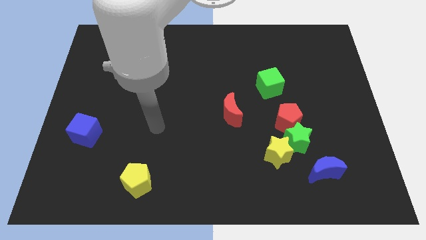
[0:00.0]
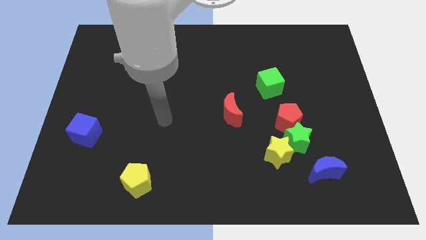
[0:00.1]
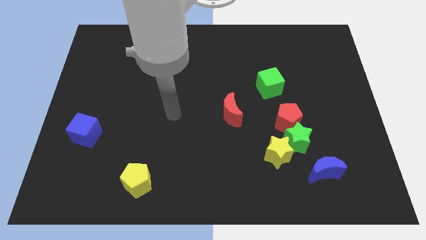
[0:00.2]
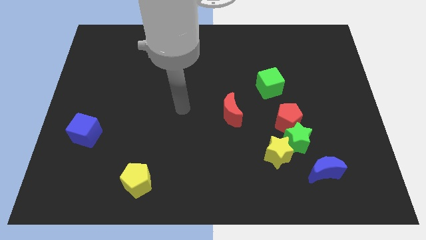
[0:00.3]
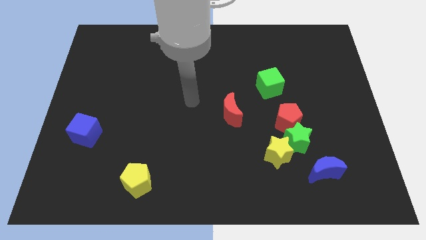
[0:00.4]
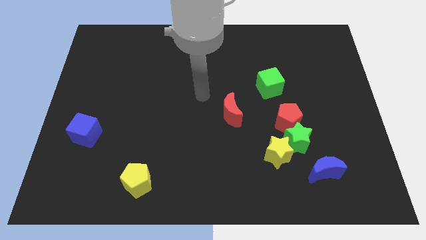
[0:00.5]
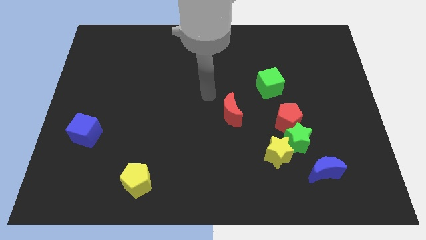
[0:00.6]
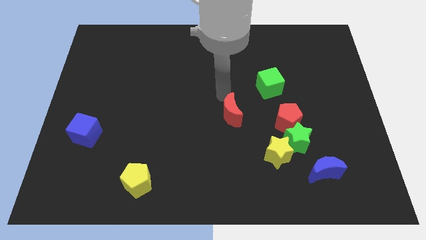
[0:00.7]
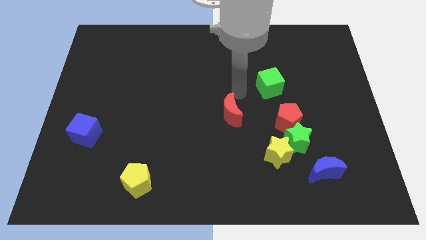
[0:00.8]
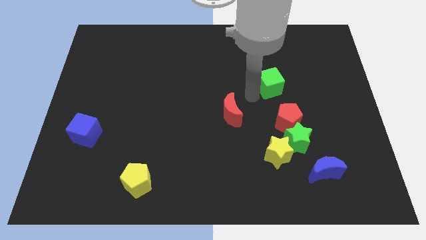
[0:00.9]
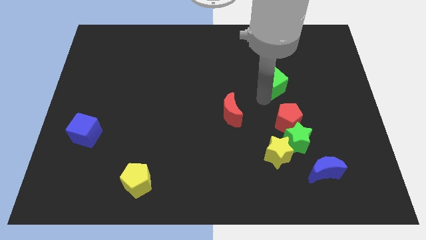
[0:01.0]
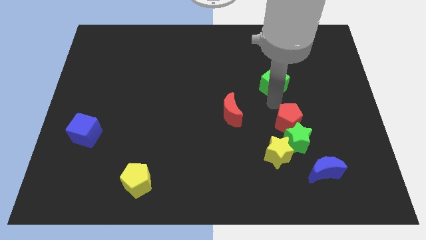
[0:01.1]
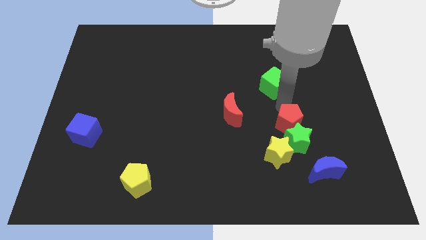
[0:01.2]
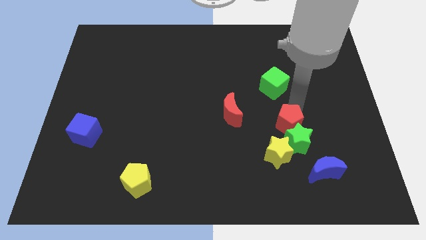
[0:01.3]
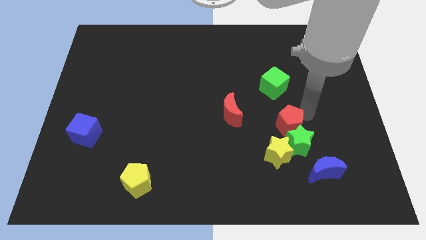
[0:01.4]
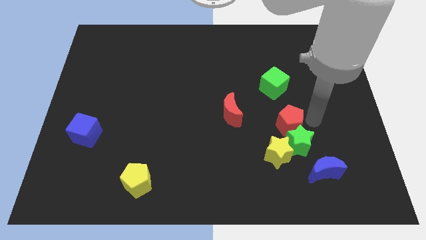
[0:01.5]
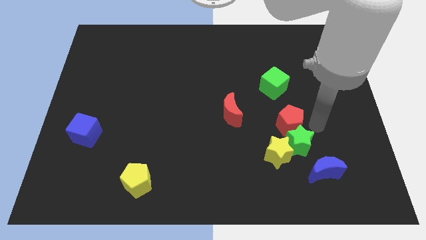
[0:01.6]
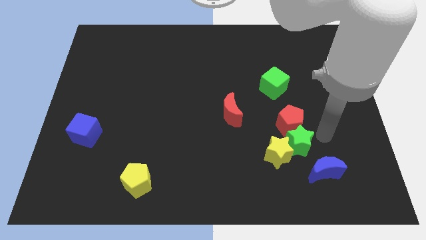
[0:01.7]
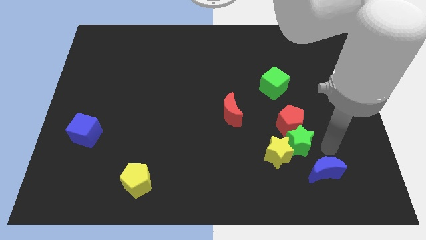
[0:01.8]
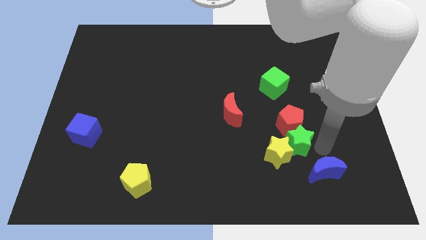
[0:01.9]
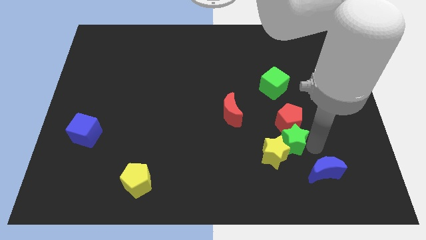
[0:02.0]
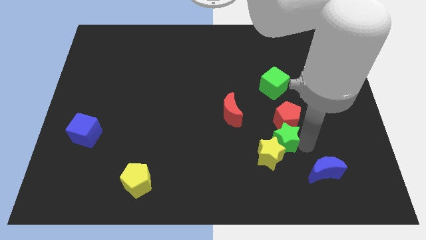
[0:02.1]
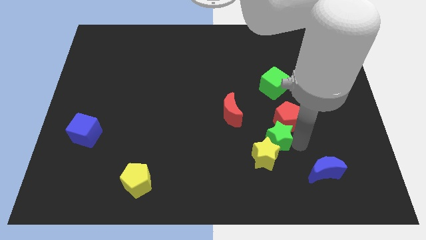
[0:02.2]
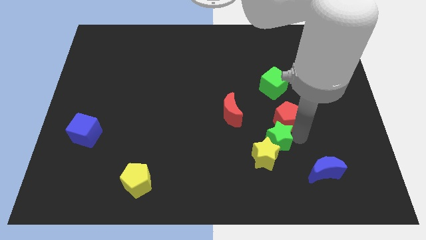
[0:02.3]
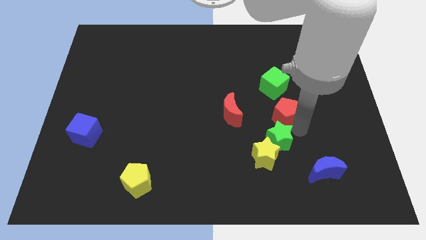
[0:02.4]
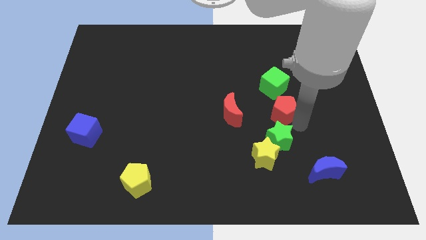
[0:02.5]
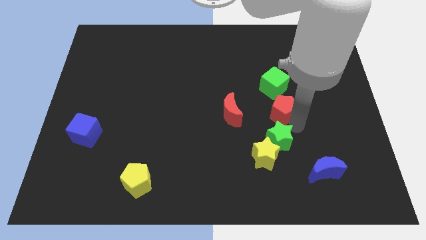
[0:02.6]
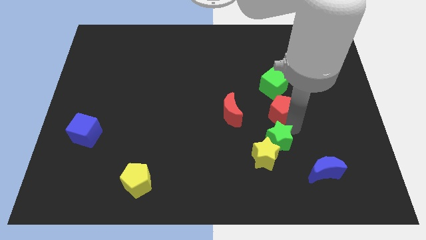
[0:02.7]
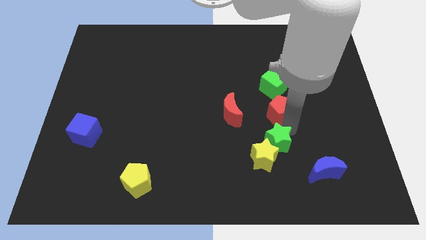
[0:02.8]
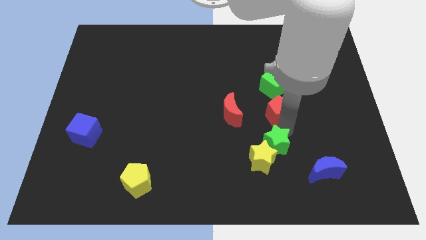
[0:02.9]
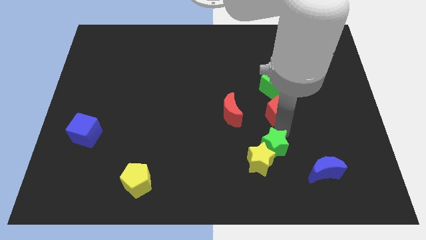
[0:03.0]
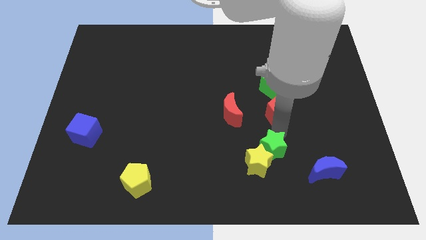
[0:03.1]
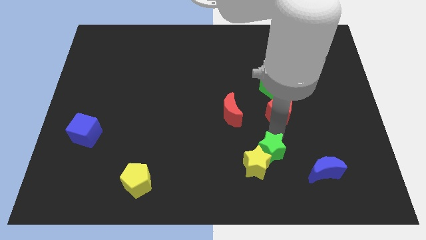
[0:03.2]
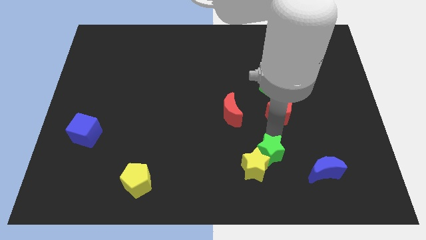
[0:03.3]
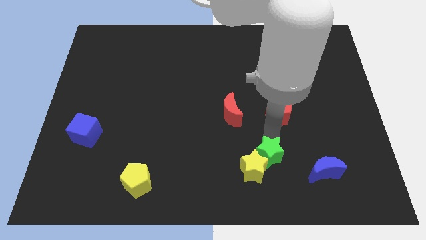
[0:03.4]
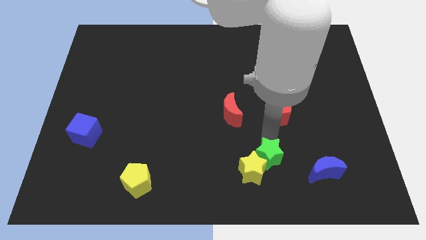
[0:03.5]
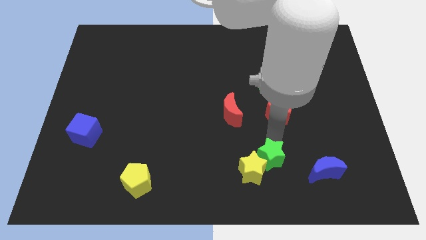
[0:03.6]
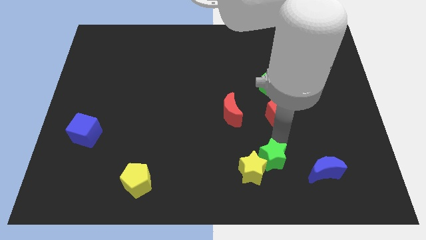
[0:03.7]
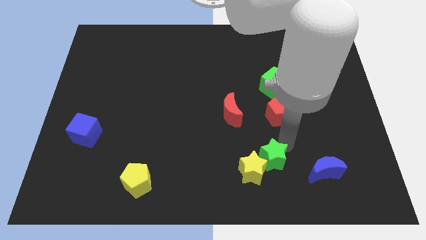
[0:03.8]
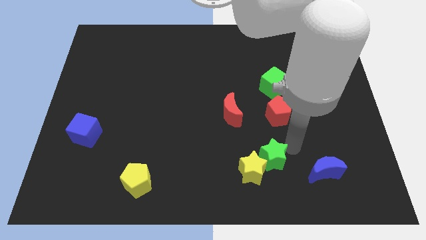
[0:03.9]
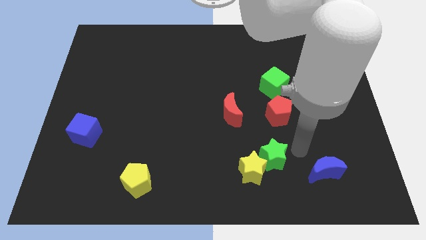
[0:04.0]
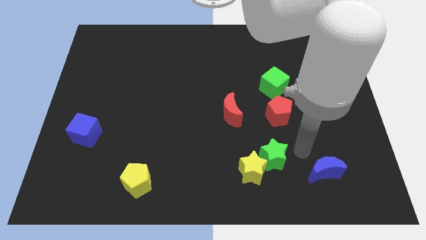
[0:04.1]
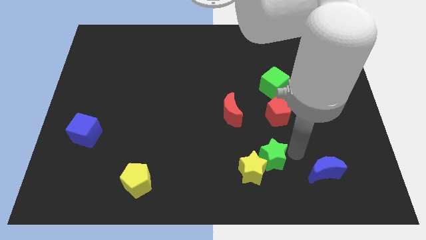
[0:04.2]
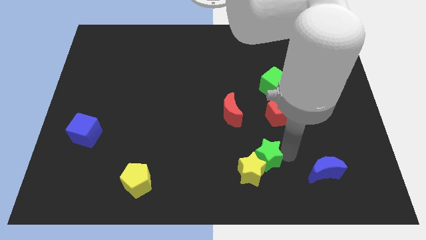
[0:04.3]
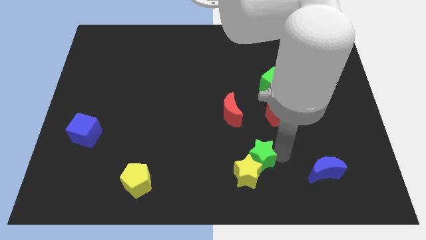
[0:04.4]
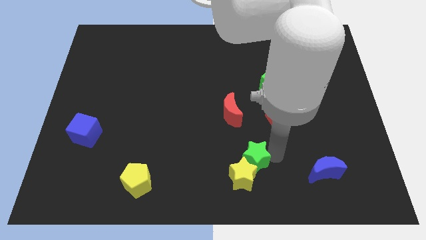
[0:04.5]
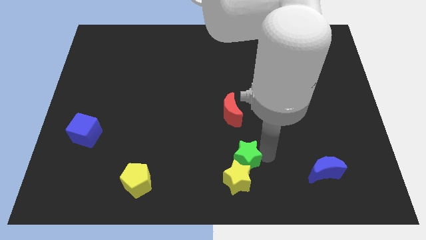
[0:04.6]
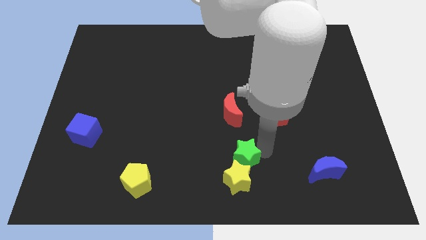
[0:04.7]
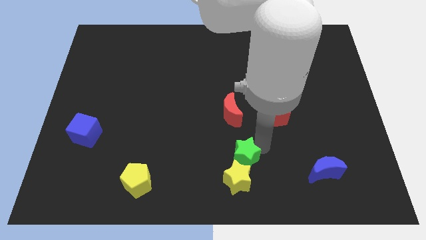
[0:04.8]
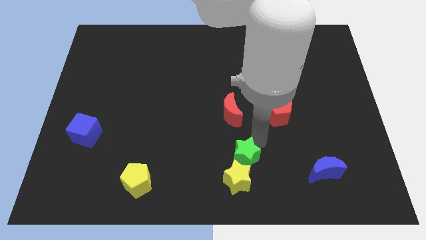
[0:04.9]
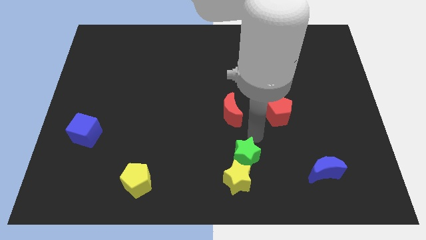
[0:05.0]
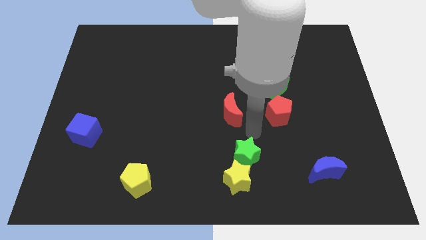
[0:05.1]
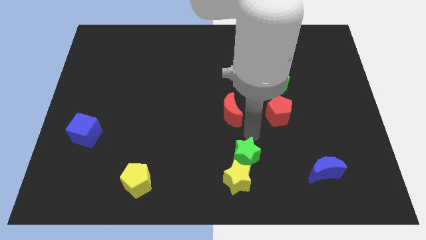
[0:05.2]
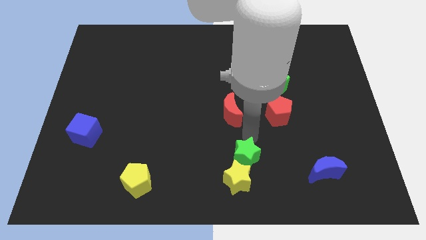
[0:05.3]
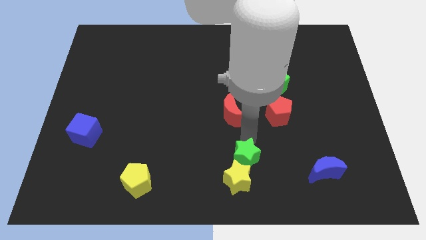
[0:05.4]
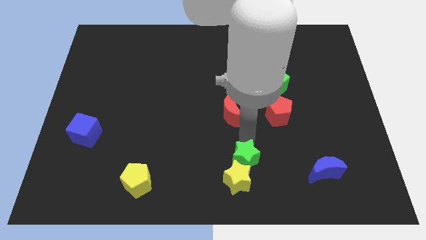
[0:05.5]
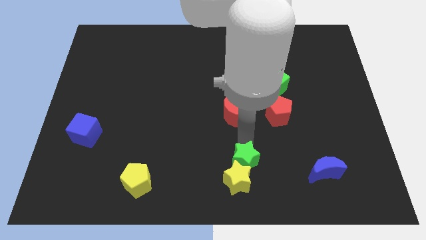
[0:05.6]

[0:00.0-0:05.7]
put the green star to the bottom
